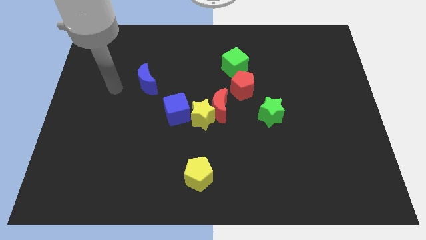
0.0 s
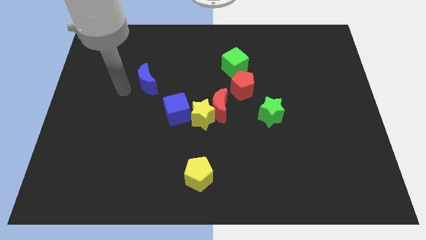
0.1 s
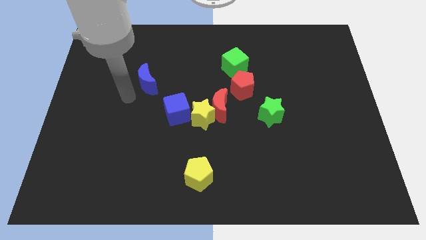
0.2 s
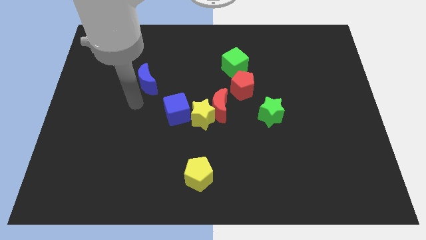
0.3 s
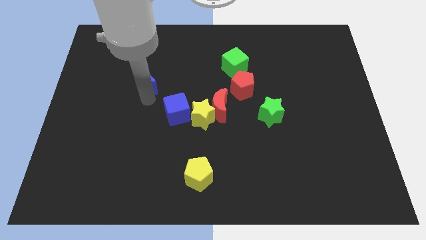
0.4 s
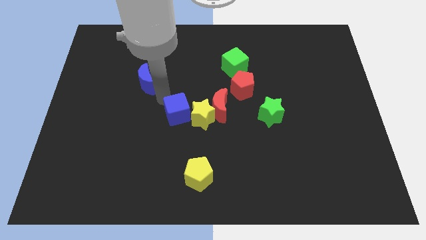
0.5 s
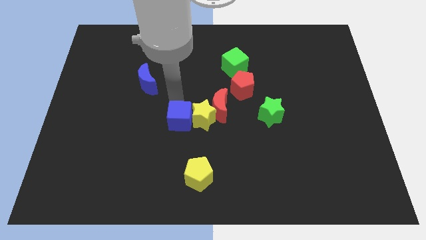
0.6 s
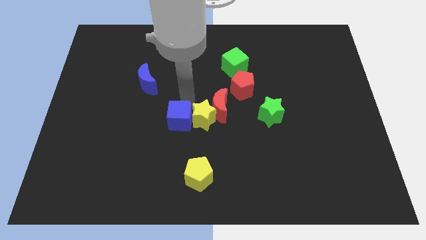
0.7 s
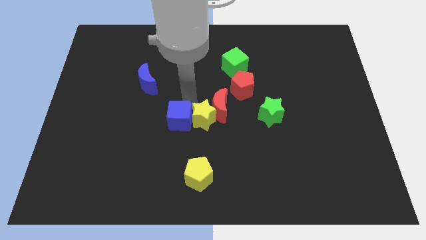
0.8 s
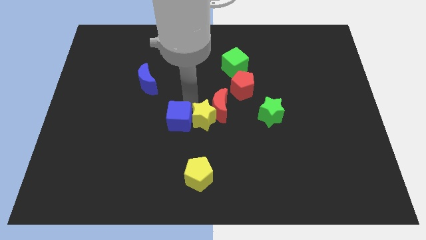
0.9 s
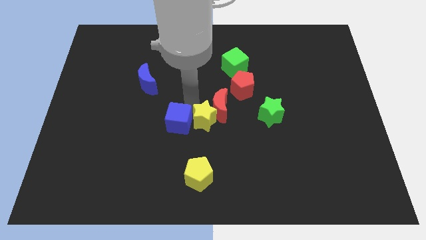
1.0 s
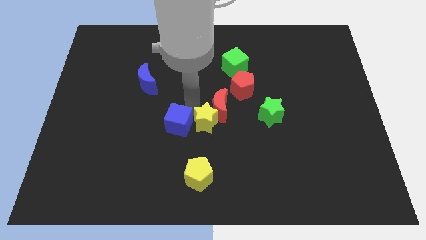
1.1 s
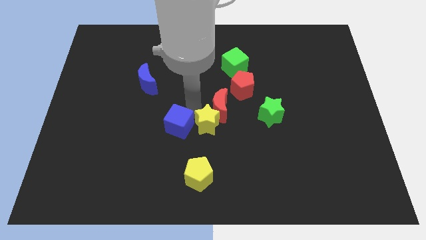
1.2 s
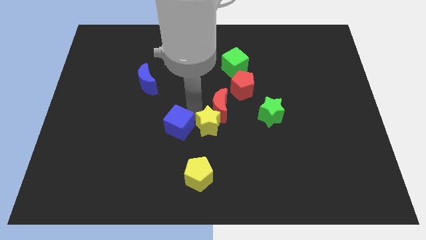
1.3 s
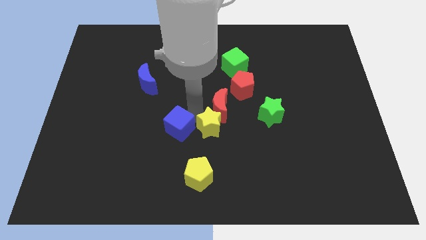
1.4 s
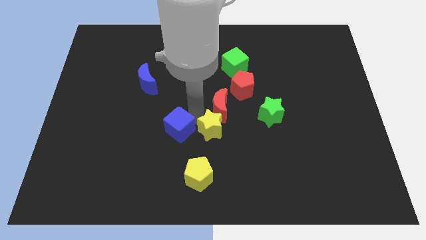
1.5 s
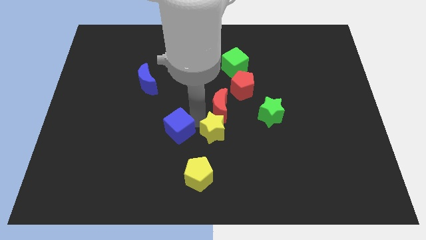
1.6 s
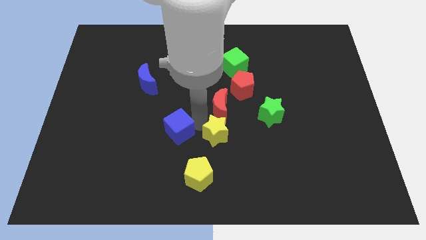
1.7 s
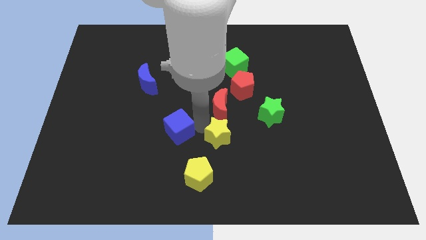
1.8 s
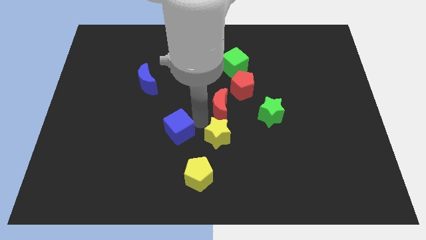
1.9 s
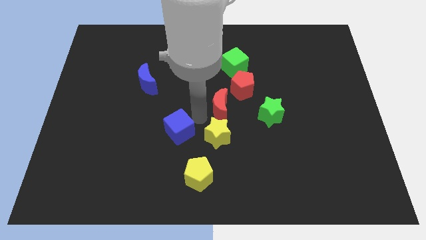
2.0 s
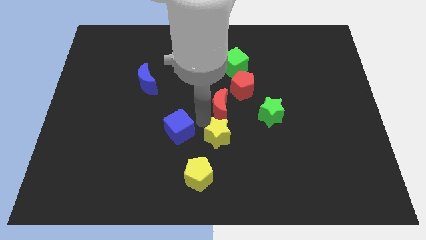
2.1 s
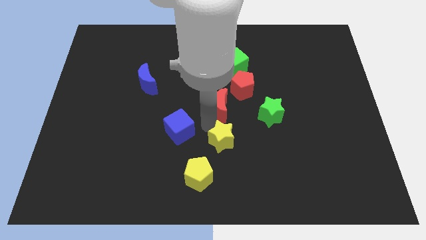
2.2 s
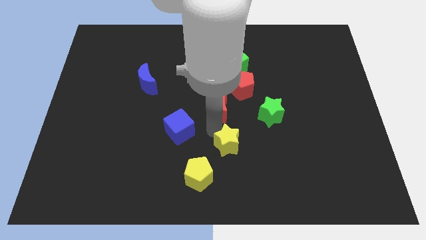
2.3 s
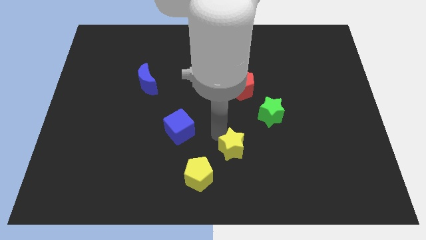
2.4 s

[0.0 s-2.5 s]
separate the yellow star from the red moon and blue cube

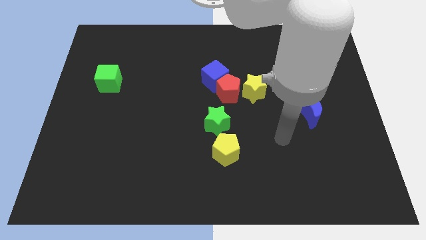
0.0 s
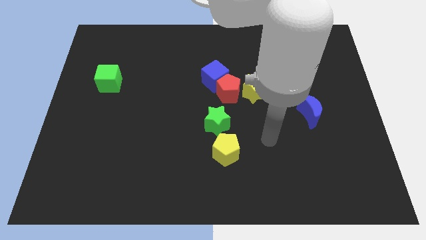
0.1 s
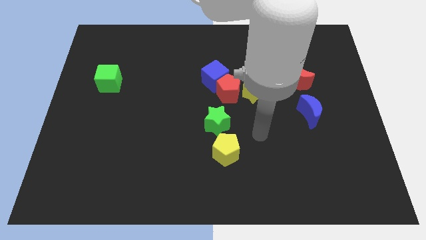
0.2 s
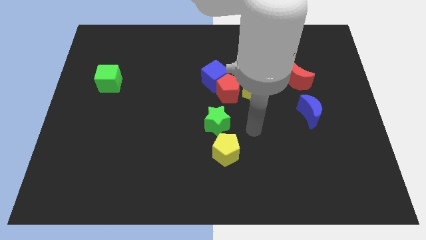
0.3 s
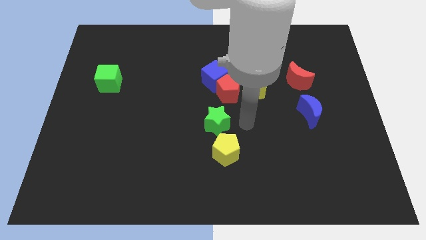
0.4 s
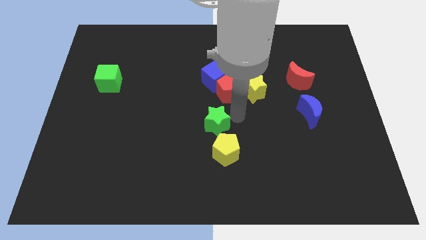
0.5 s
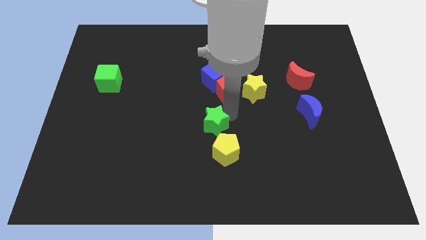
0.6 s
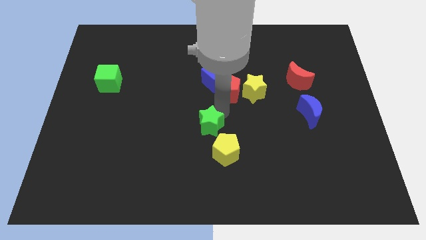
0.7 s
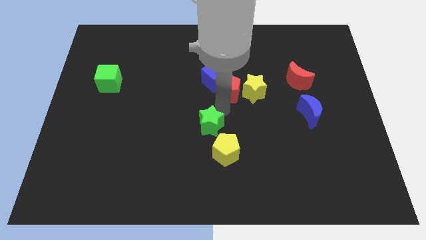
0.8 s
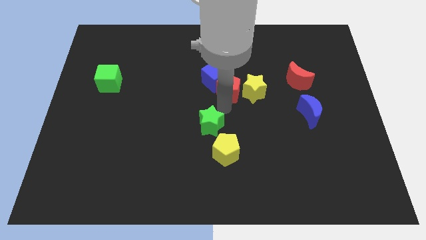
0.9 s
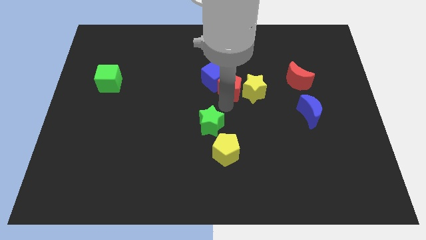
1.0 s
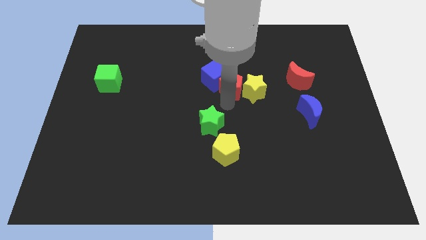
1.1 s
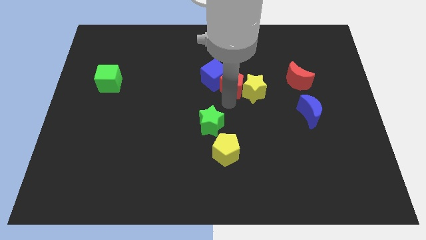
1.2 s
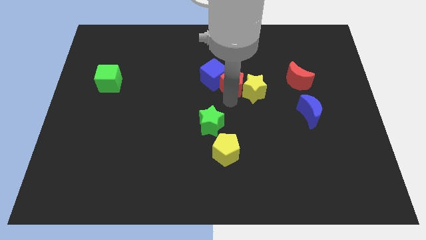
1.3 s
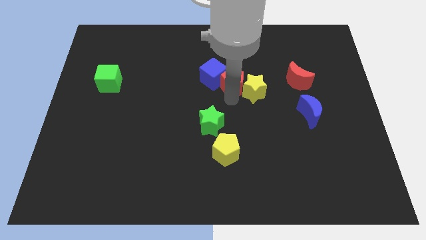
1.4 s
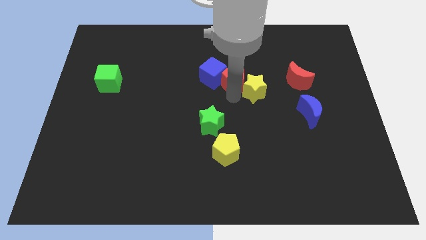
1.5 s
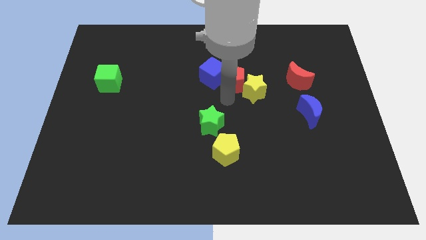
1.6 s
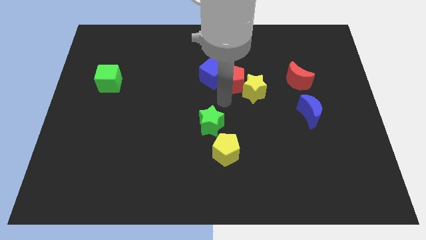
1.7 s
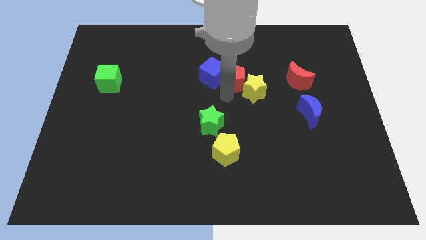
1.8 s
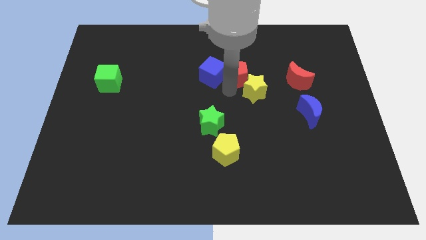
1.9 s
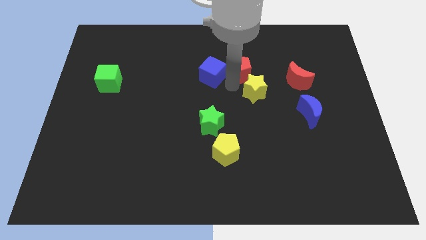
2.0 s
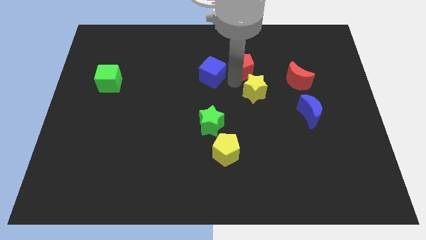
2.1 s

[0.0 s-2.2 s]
separate the red pentagon from the blue cube, yellow star, and green star

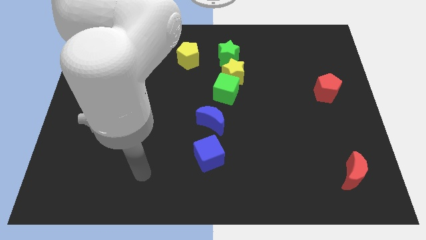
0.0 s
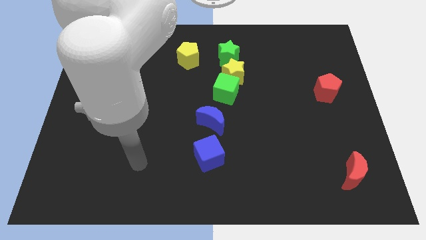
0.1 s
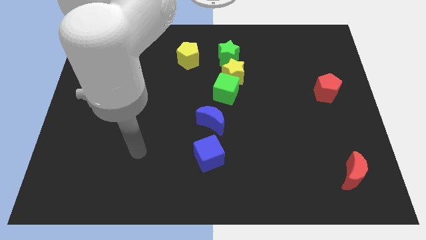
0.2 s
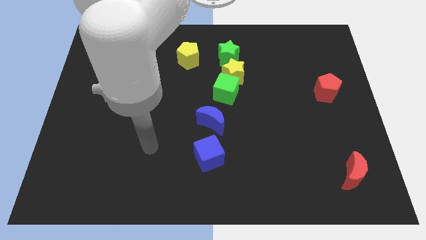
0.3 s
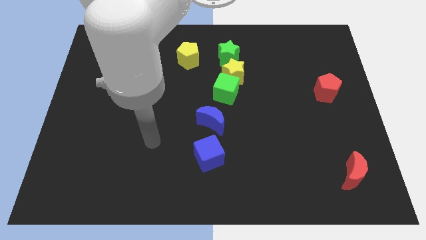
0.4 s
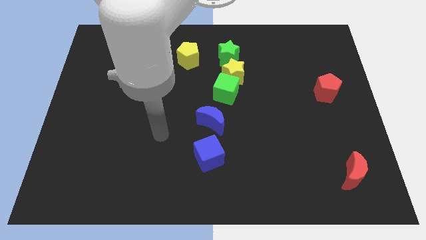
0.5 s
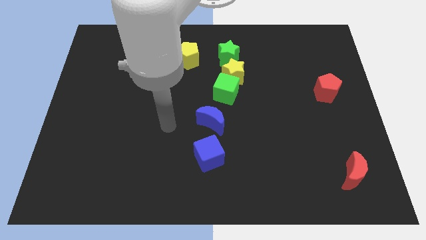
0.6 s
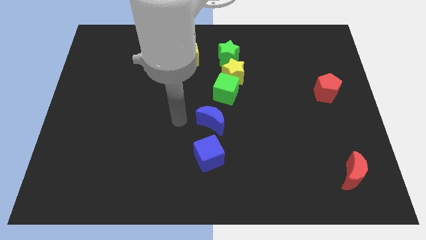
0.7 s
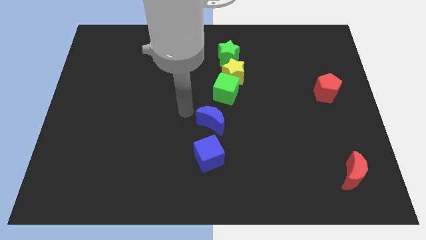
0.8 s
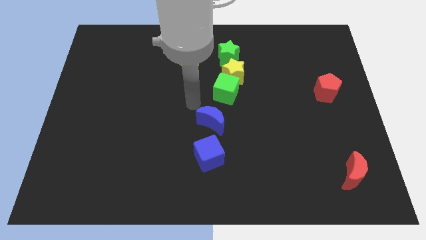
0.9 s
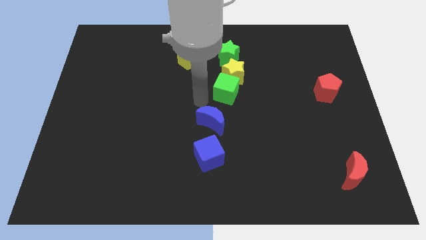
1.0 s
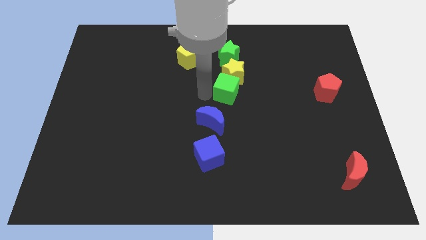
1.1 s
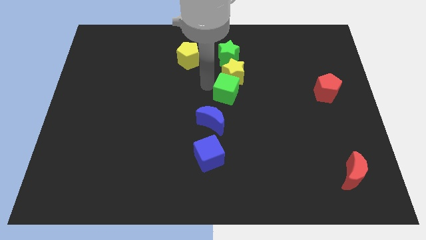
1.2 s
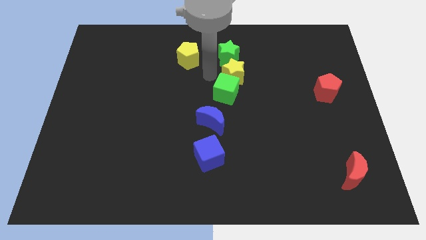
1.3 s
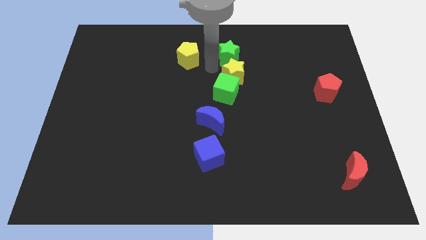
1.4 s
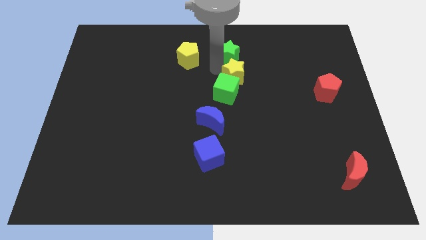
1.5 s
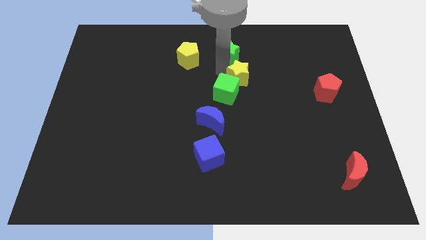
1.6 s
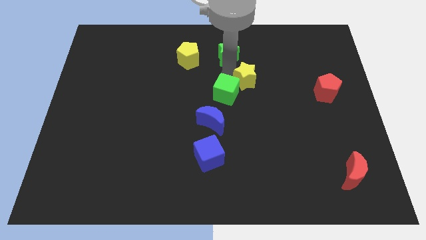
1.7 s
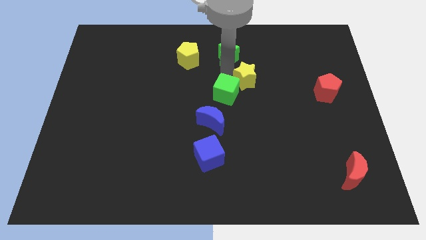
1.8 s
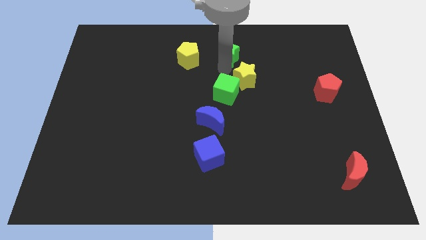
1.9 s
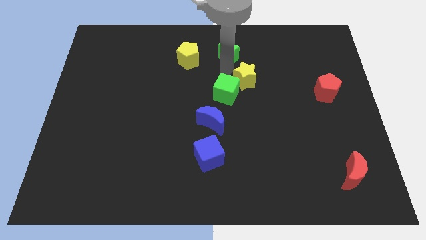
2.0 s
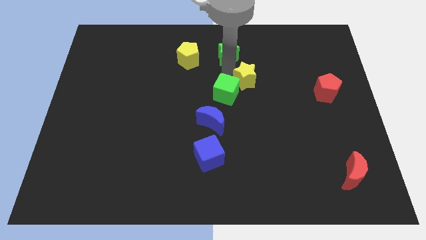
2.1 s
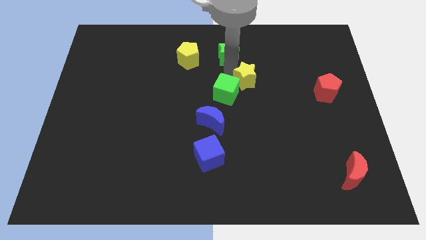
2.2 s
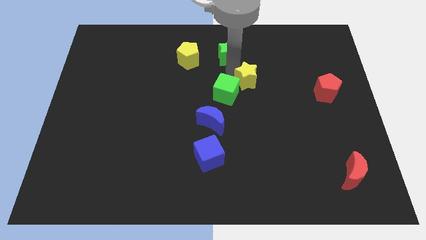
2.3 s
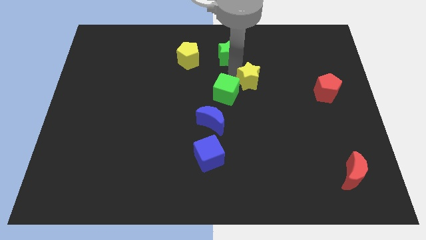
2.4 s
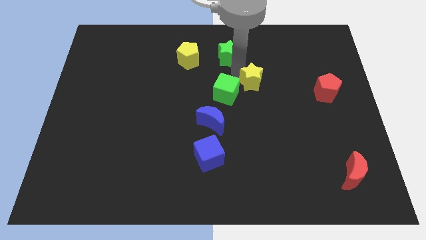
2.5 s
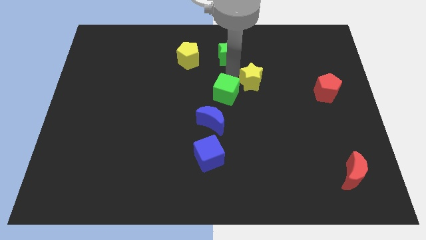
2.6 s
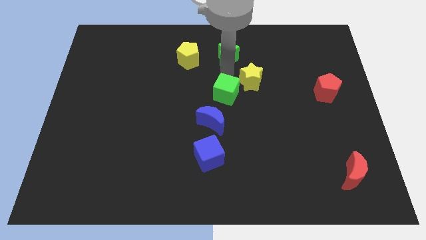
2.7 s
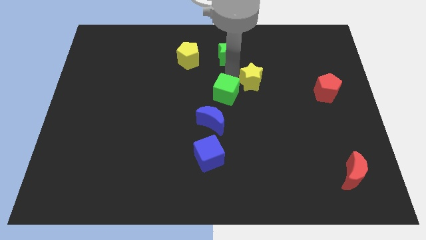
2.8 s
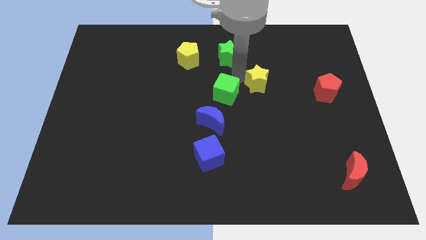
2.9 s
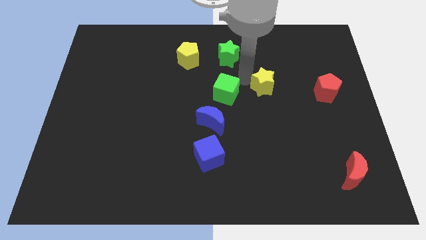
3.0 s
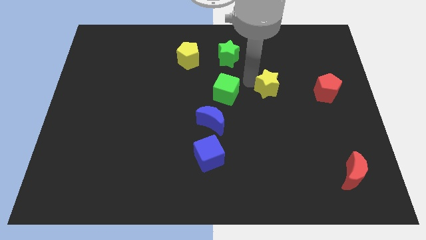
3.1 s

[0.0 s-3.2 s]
separate the yellow star from the green cube and green star

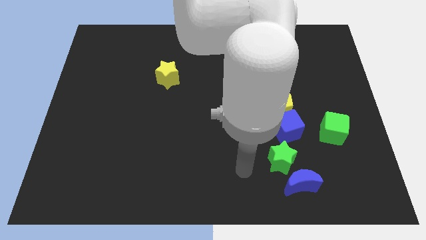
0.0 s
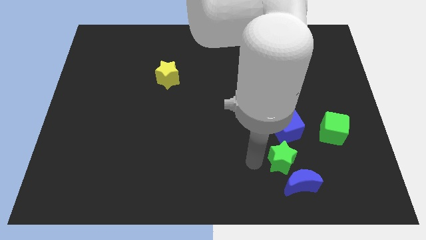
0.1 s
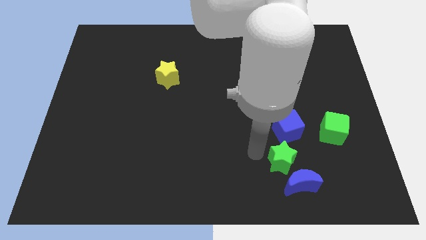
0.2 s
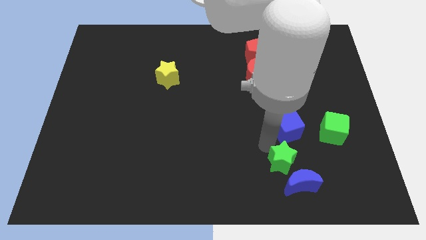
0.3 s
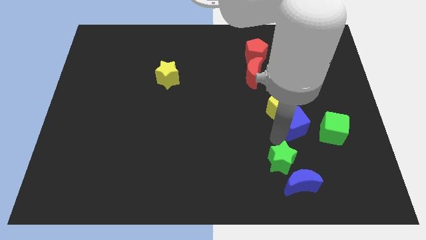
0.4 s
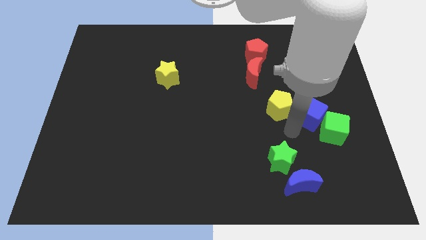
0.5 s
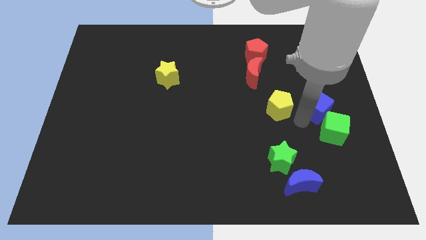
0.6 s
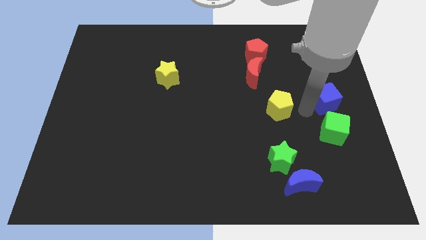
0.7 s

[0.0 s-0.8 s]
move the yellow pentagon away from the blue cube

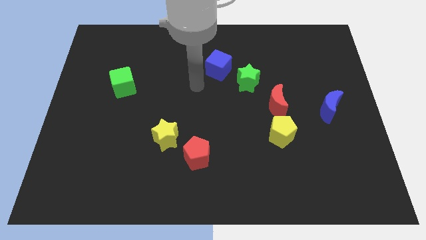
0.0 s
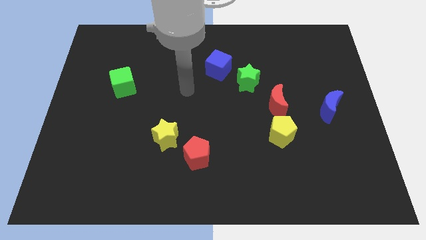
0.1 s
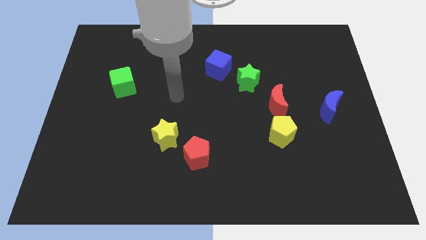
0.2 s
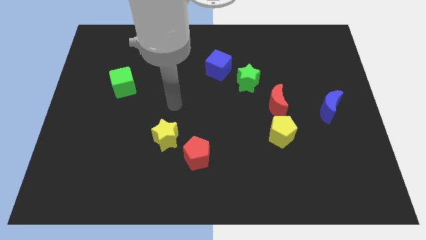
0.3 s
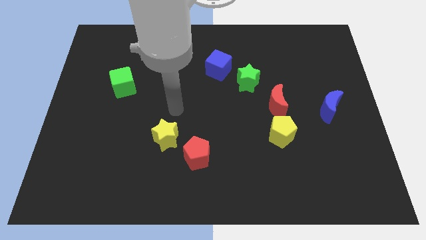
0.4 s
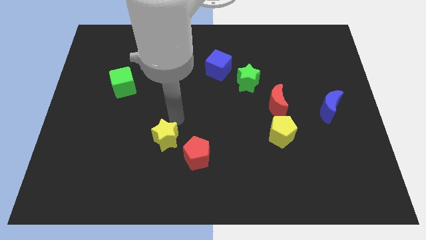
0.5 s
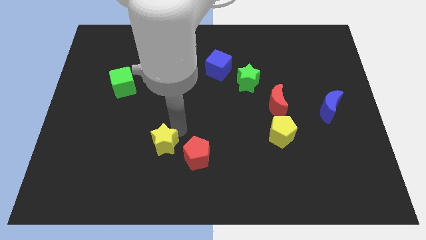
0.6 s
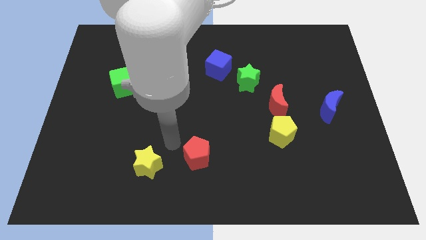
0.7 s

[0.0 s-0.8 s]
pull the red pentagon apart from the yellow star
